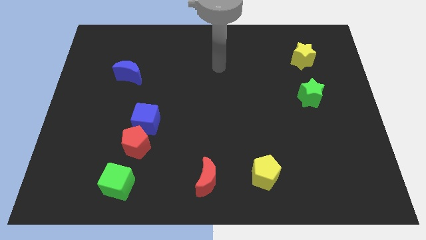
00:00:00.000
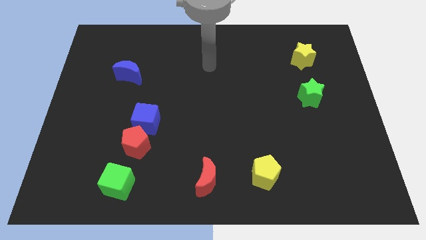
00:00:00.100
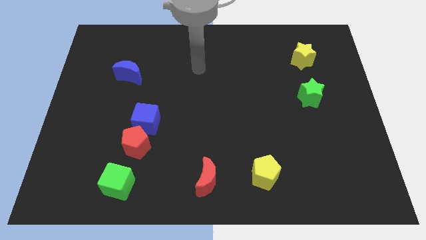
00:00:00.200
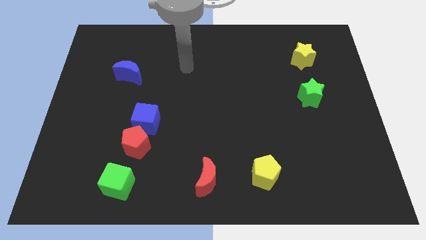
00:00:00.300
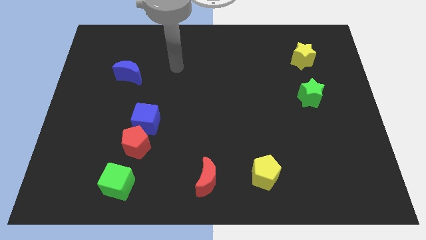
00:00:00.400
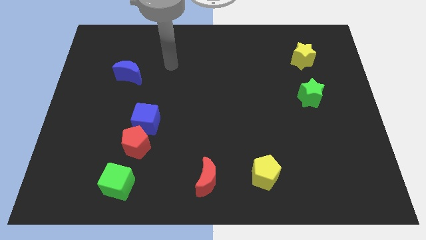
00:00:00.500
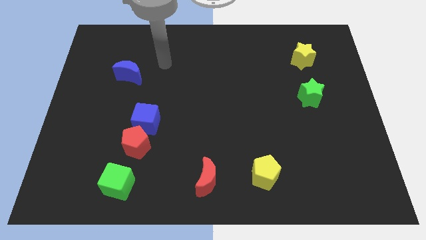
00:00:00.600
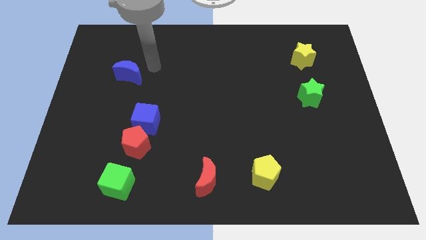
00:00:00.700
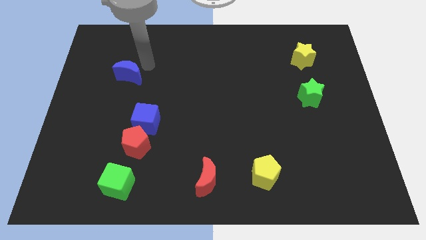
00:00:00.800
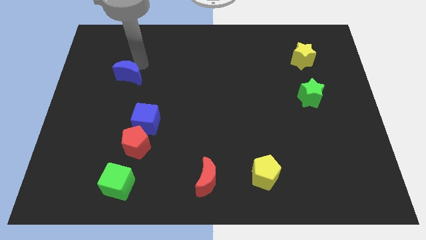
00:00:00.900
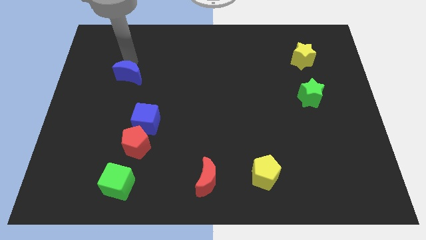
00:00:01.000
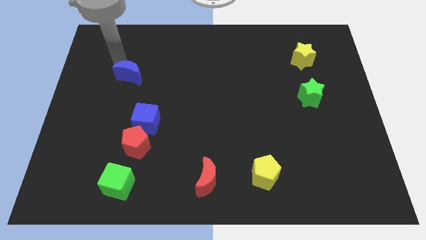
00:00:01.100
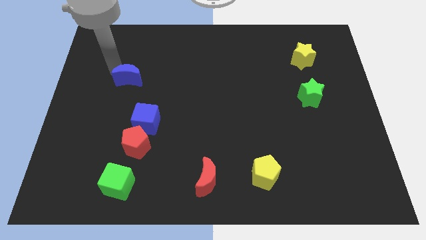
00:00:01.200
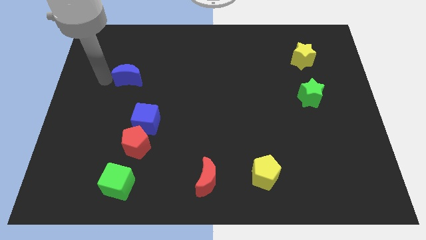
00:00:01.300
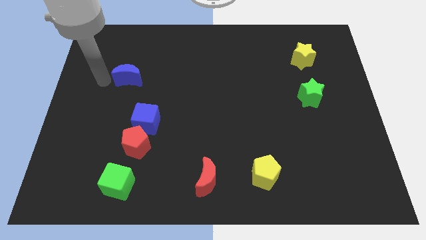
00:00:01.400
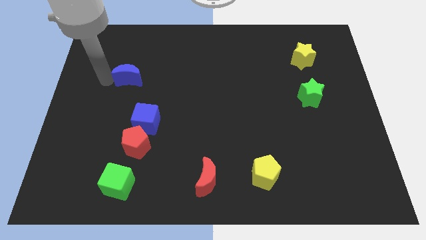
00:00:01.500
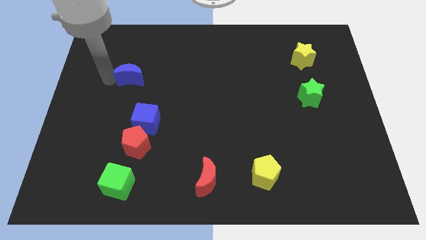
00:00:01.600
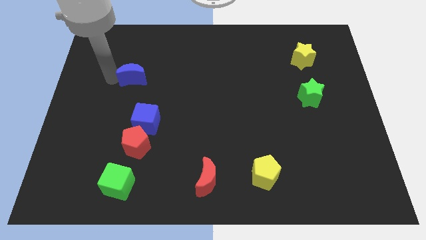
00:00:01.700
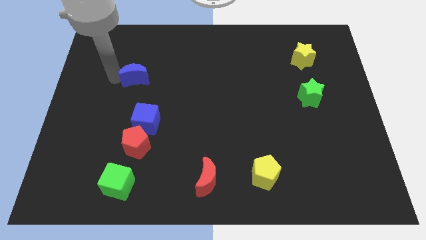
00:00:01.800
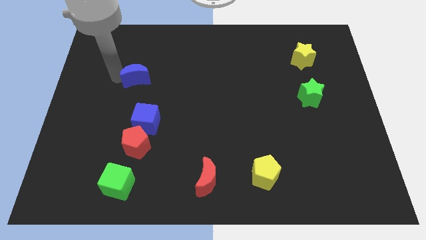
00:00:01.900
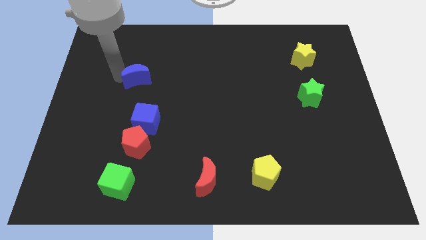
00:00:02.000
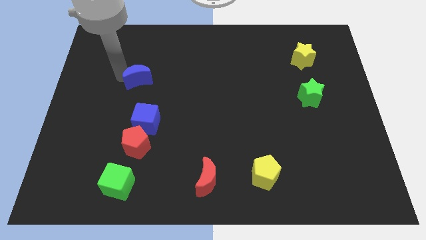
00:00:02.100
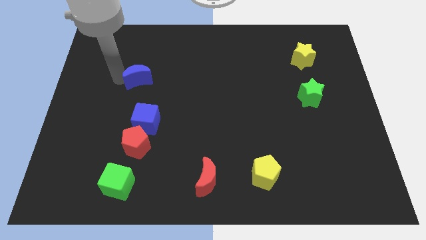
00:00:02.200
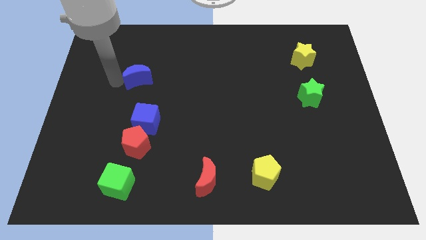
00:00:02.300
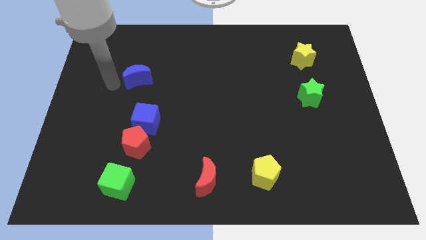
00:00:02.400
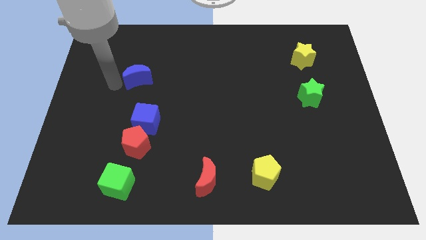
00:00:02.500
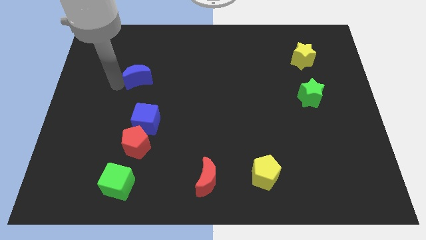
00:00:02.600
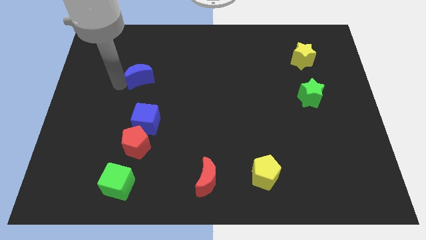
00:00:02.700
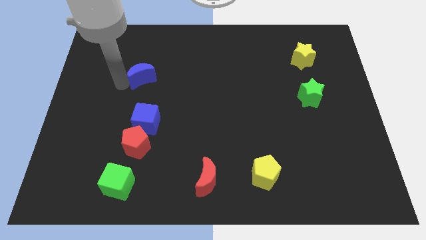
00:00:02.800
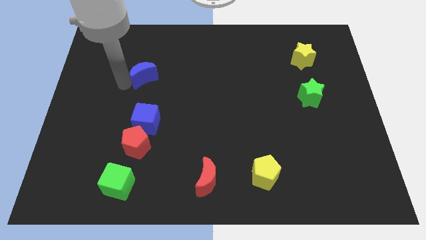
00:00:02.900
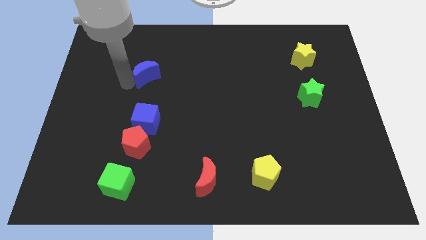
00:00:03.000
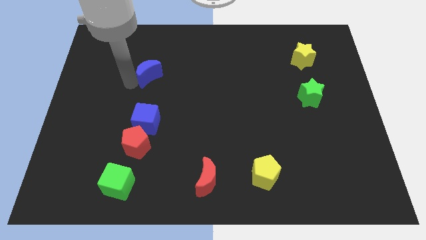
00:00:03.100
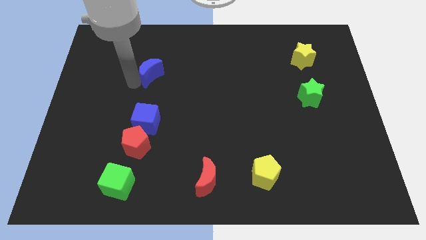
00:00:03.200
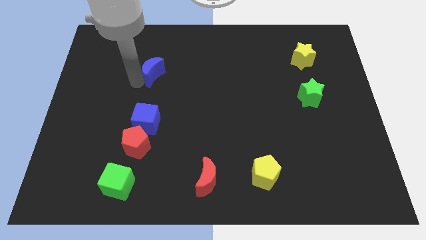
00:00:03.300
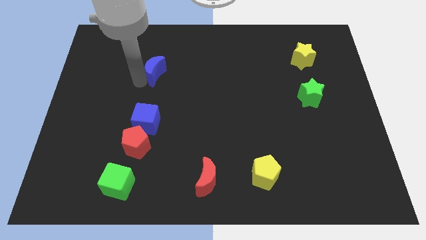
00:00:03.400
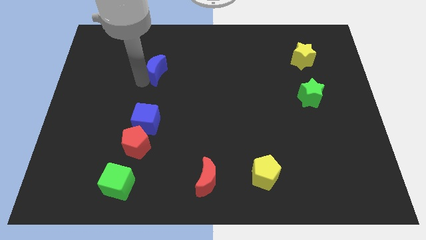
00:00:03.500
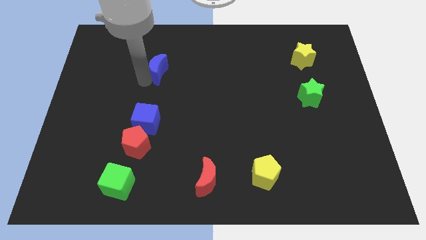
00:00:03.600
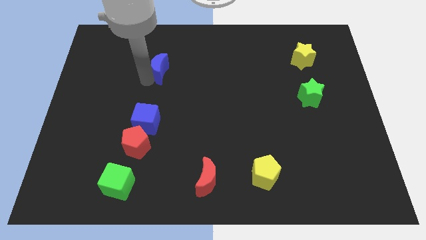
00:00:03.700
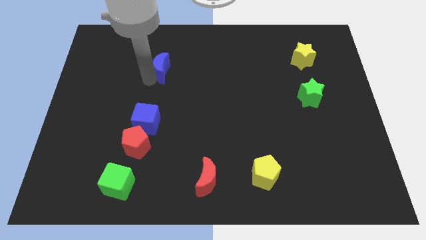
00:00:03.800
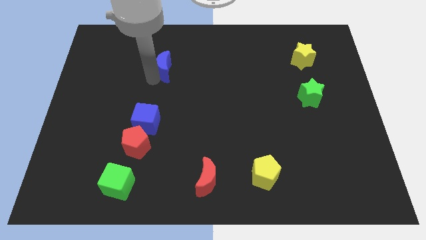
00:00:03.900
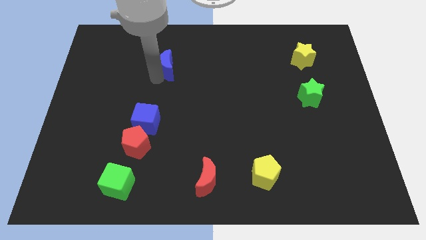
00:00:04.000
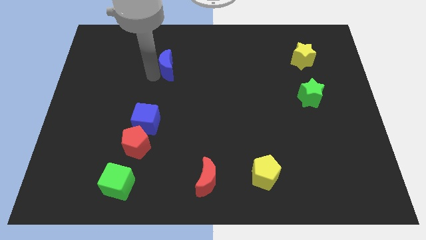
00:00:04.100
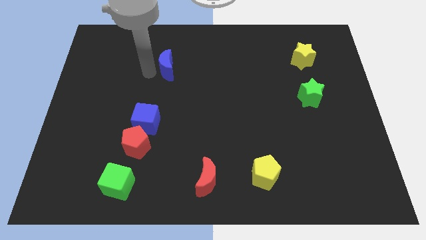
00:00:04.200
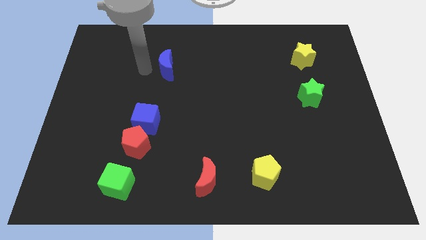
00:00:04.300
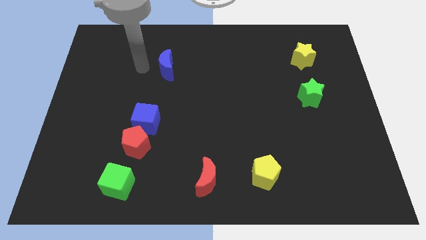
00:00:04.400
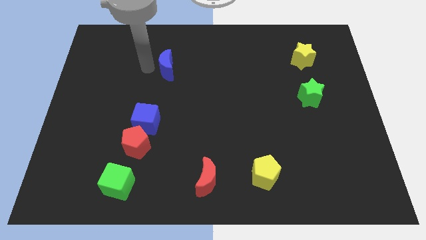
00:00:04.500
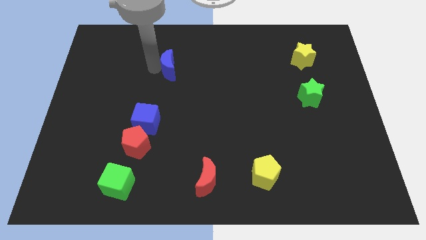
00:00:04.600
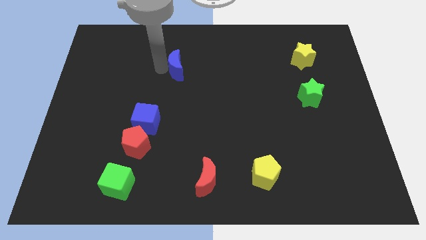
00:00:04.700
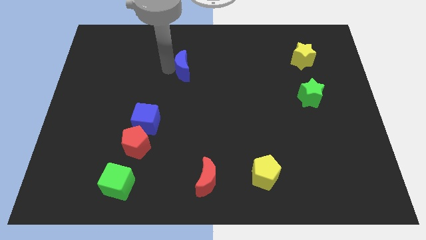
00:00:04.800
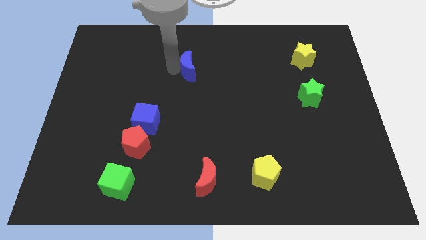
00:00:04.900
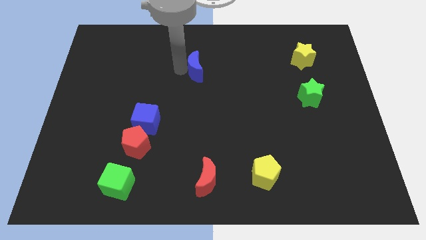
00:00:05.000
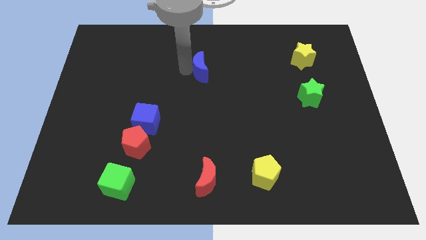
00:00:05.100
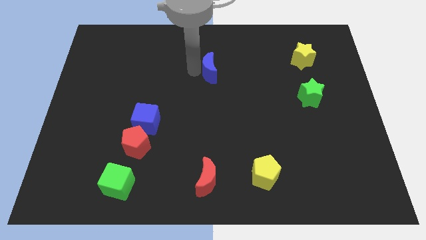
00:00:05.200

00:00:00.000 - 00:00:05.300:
move the blue moon to the right

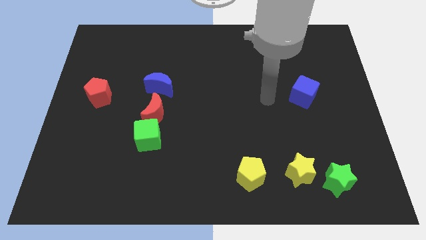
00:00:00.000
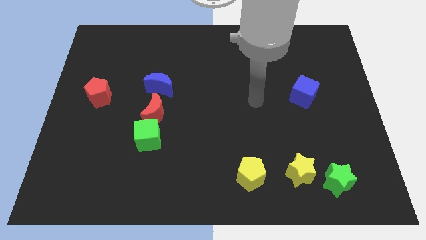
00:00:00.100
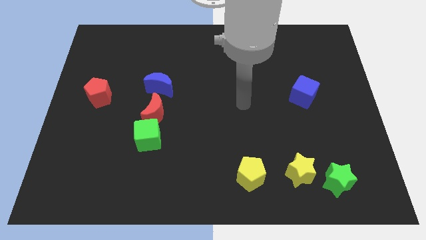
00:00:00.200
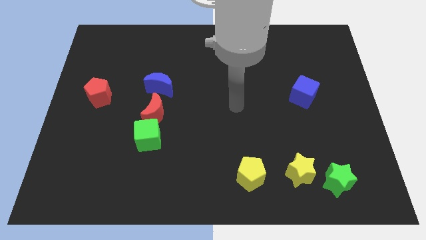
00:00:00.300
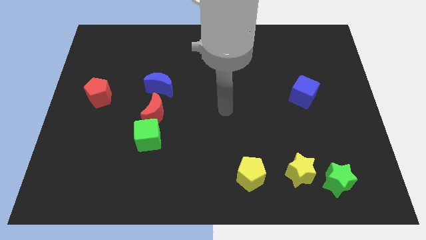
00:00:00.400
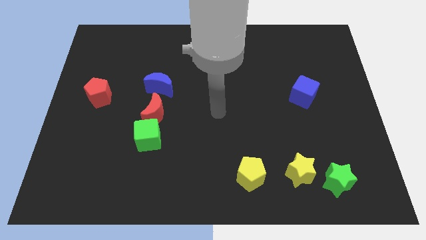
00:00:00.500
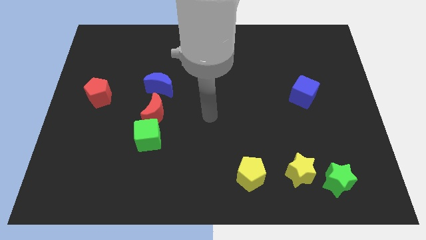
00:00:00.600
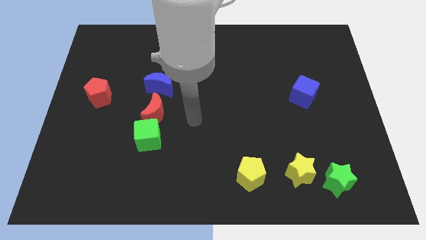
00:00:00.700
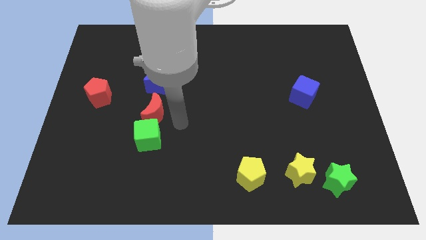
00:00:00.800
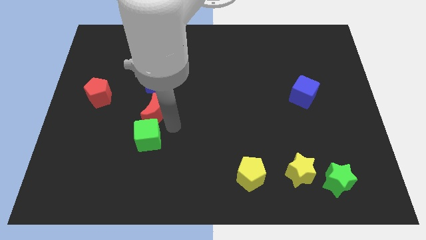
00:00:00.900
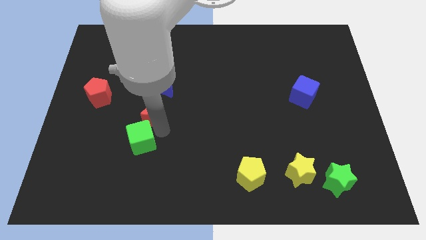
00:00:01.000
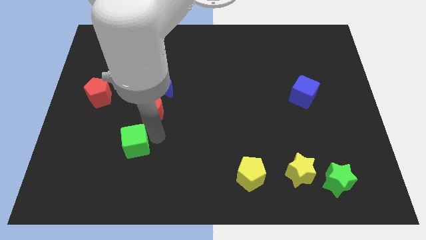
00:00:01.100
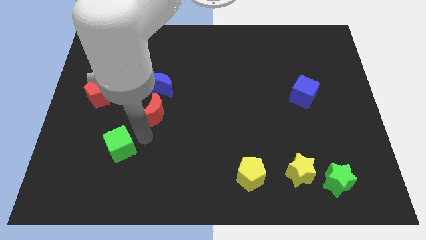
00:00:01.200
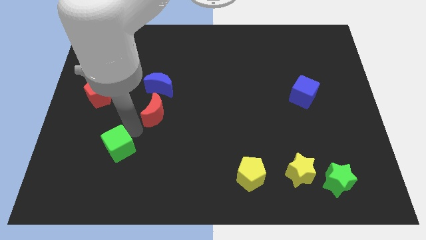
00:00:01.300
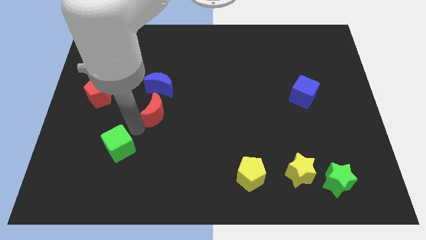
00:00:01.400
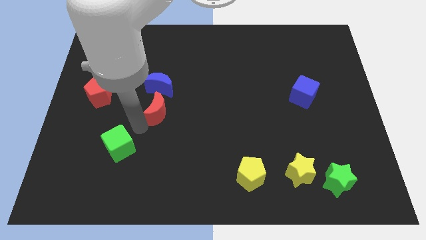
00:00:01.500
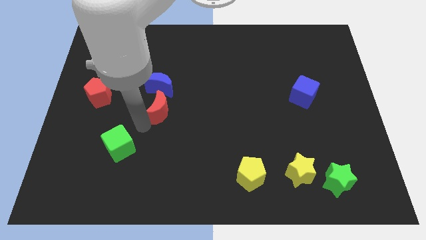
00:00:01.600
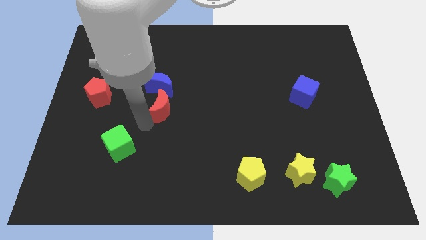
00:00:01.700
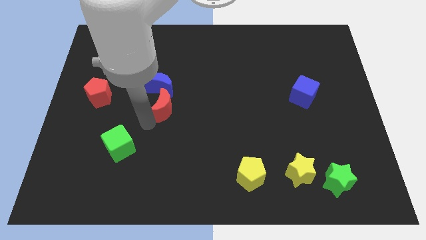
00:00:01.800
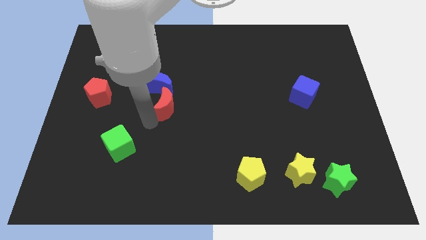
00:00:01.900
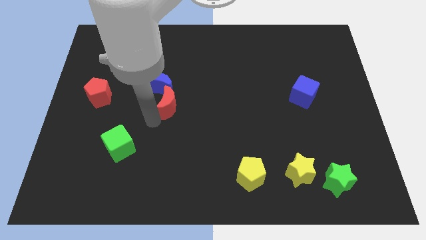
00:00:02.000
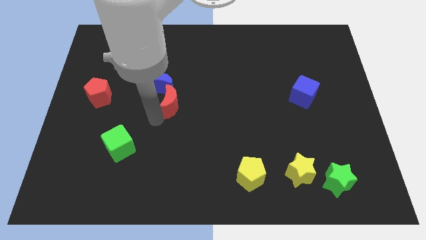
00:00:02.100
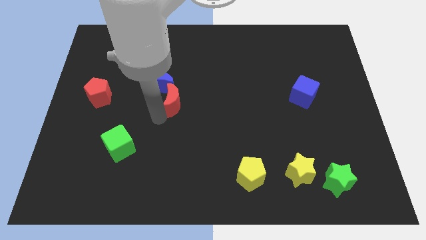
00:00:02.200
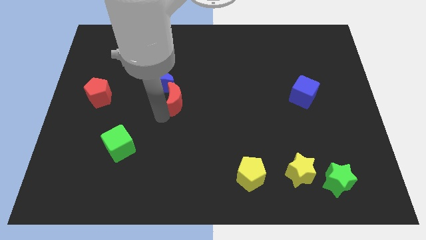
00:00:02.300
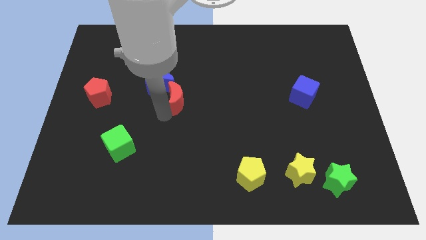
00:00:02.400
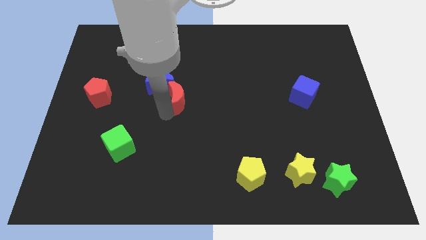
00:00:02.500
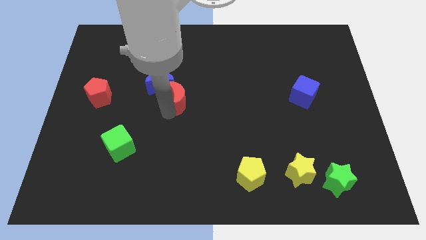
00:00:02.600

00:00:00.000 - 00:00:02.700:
slightly push the red moon upwards and then to the right
